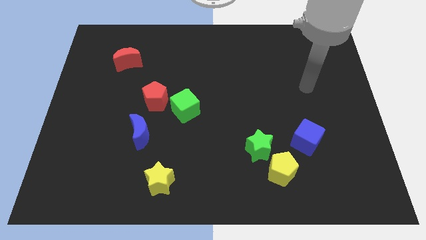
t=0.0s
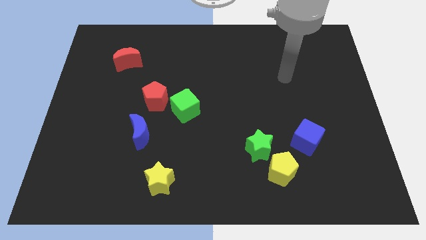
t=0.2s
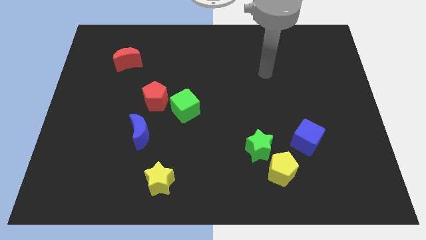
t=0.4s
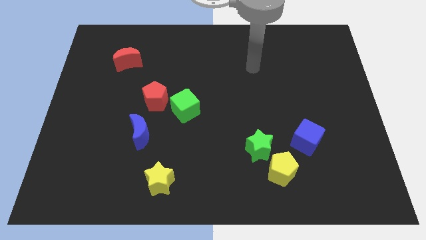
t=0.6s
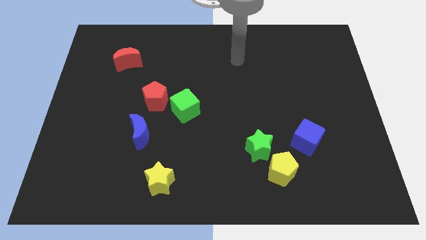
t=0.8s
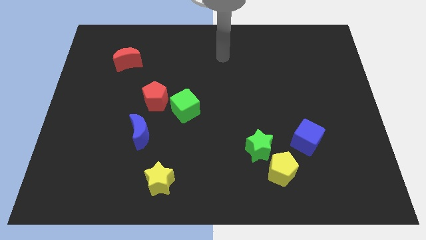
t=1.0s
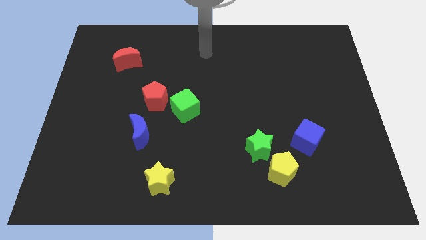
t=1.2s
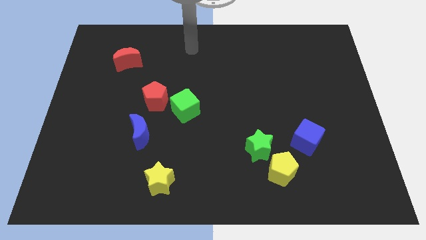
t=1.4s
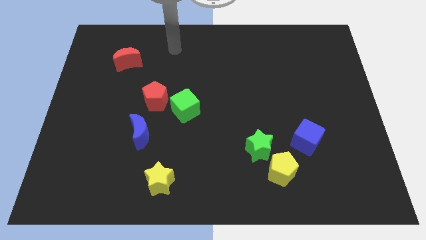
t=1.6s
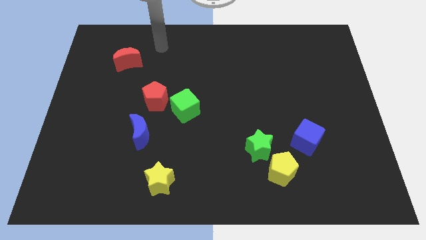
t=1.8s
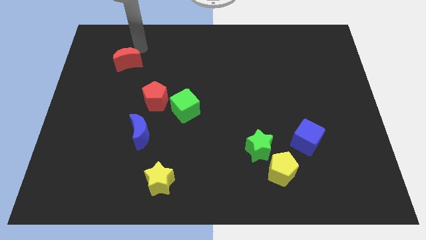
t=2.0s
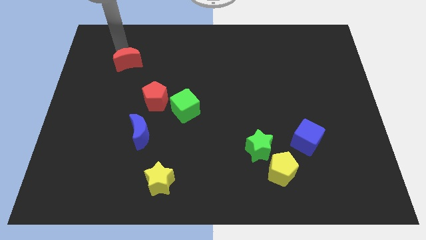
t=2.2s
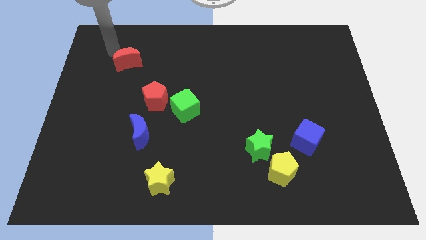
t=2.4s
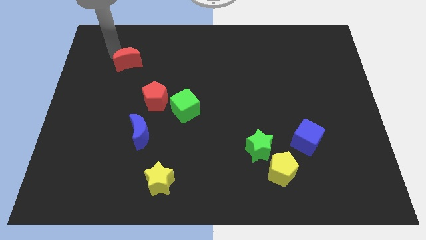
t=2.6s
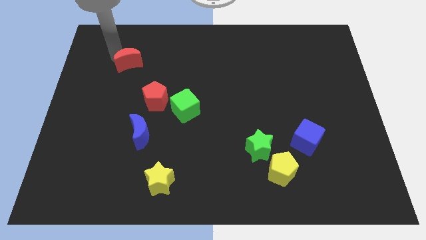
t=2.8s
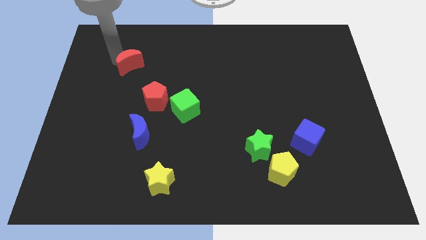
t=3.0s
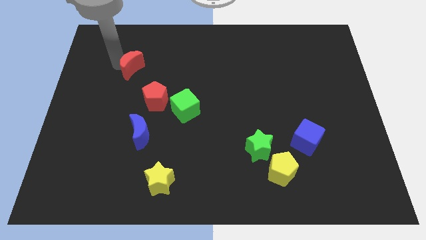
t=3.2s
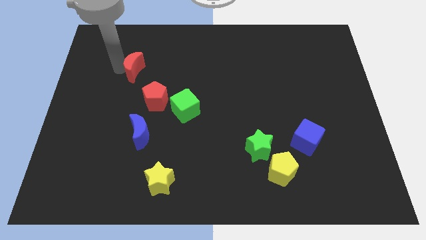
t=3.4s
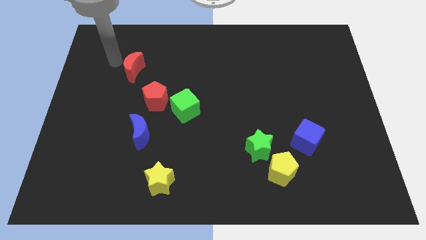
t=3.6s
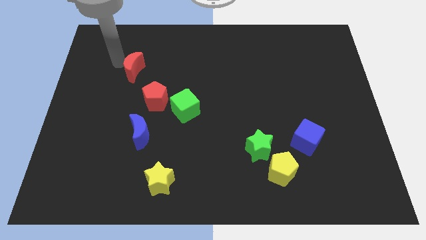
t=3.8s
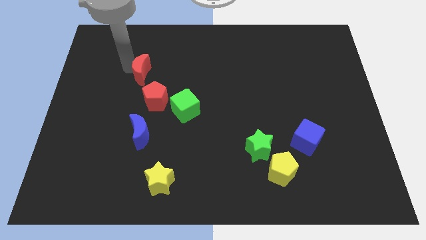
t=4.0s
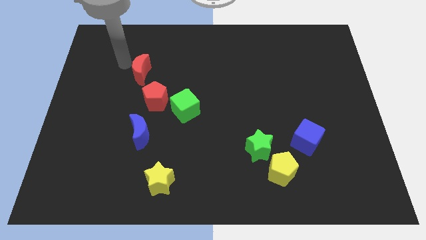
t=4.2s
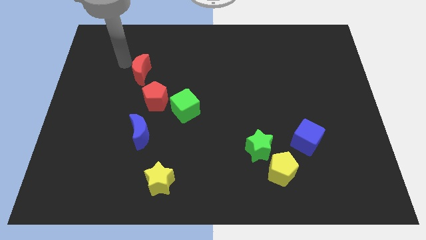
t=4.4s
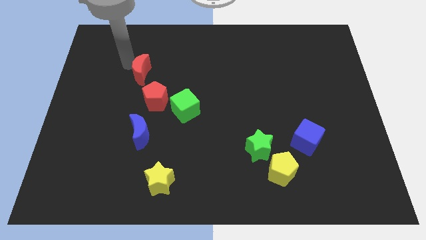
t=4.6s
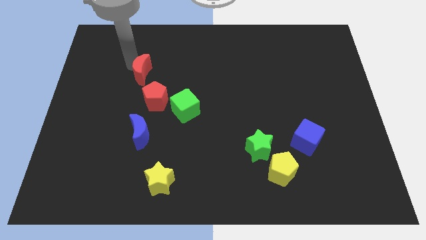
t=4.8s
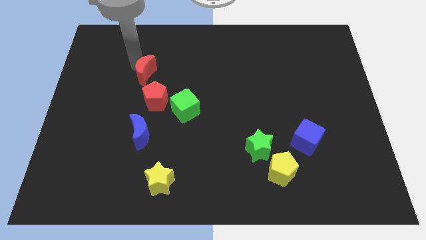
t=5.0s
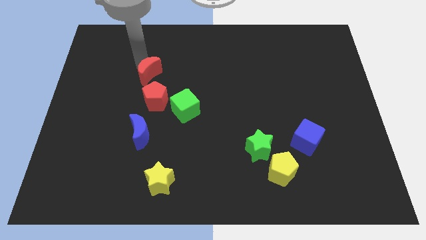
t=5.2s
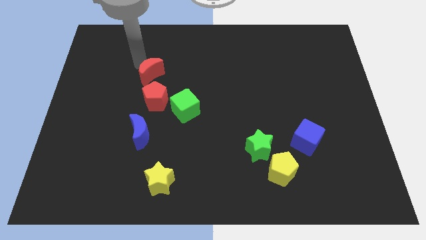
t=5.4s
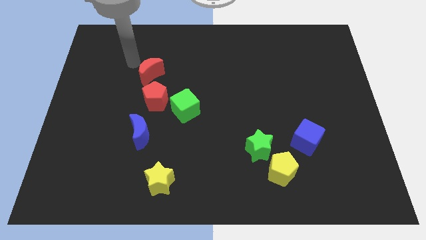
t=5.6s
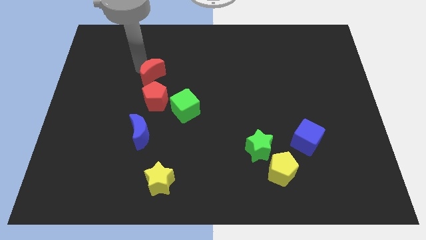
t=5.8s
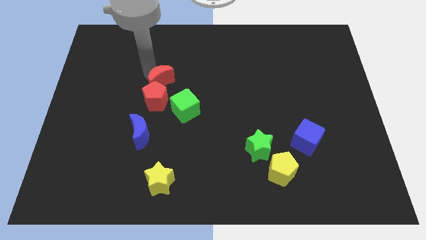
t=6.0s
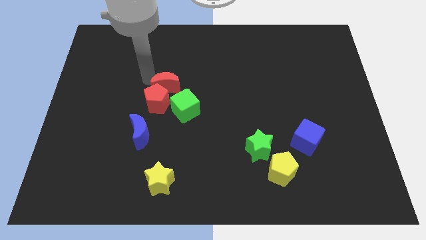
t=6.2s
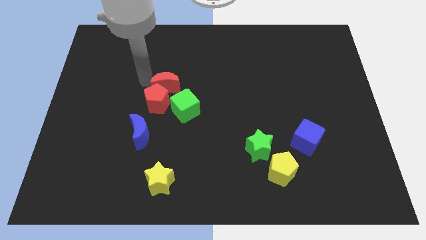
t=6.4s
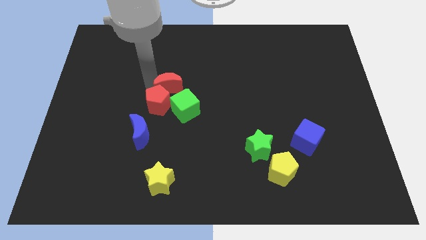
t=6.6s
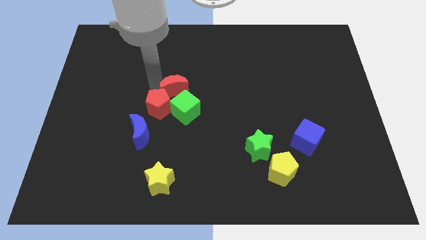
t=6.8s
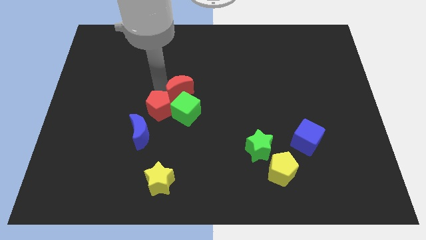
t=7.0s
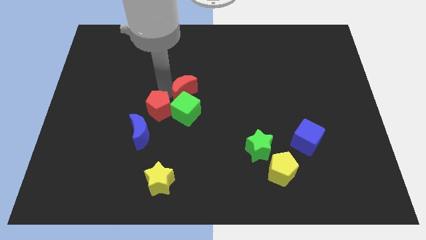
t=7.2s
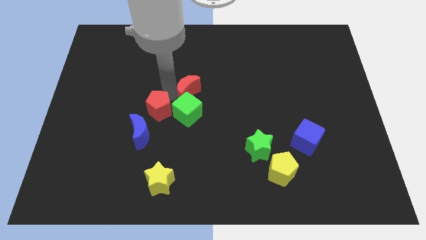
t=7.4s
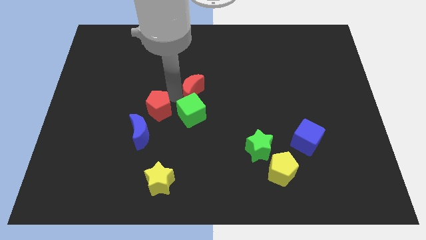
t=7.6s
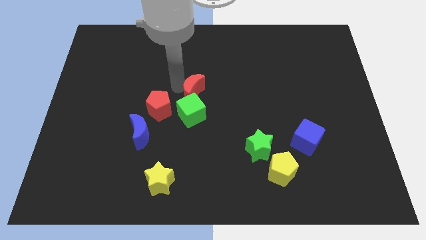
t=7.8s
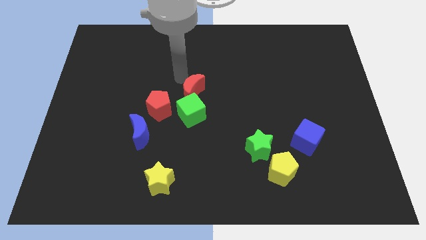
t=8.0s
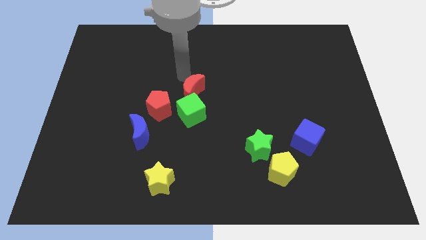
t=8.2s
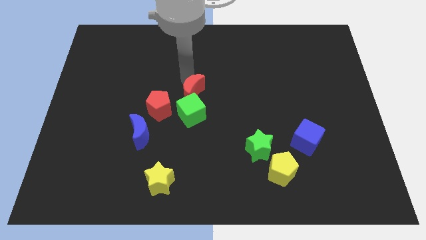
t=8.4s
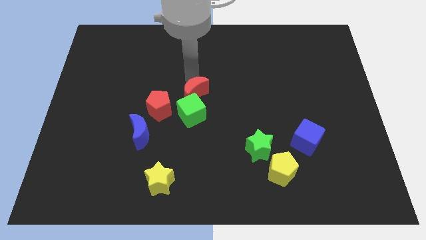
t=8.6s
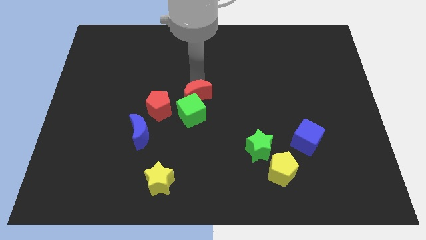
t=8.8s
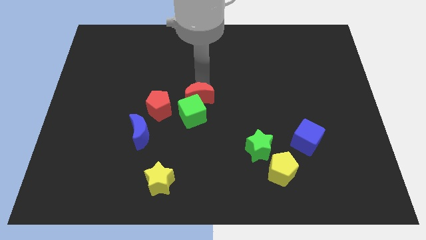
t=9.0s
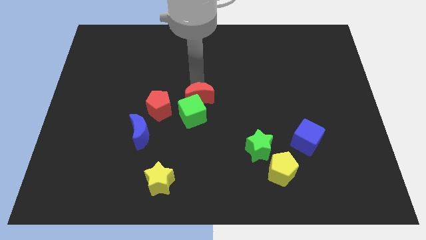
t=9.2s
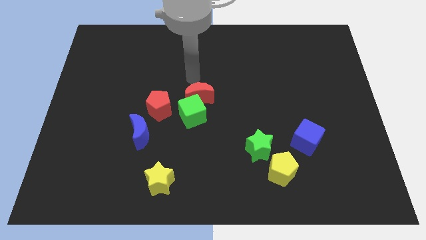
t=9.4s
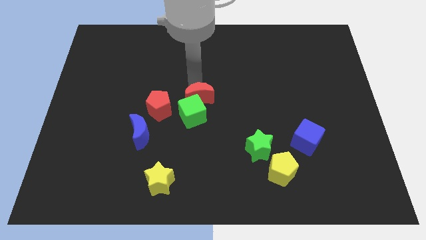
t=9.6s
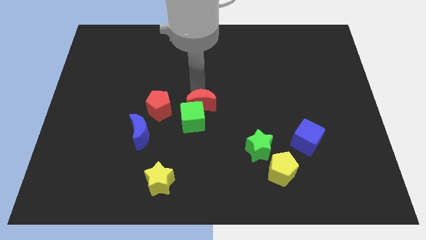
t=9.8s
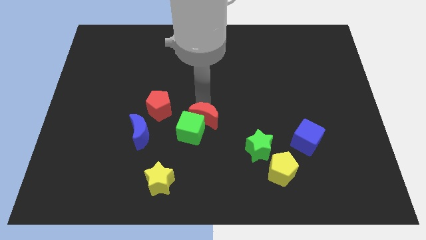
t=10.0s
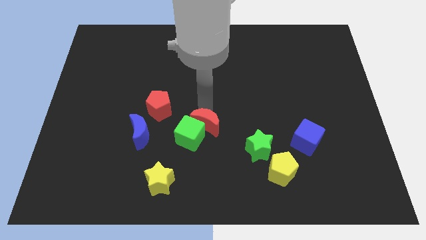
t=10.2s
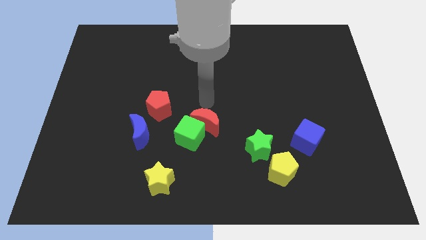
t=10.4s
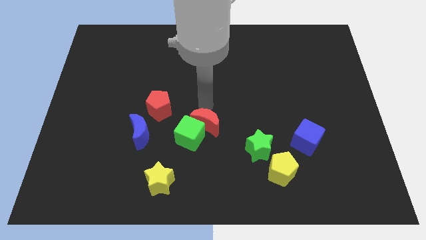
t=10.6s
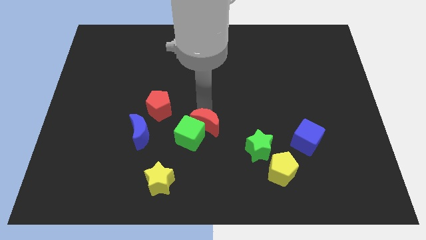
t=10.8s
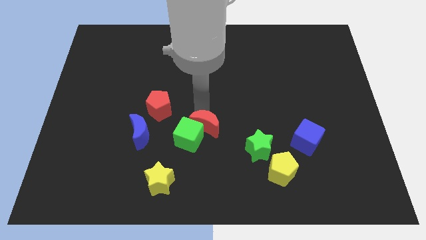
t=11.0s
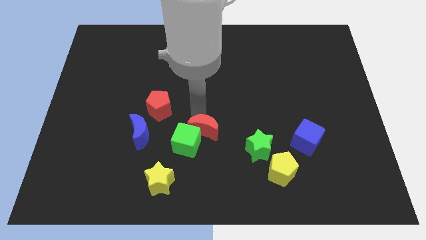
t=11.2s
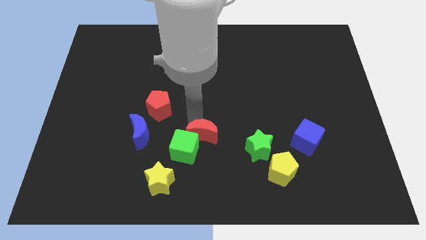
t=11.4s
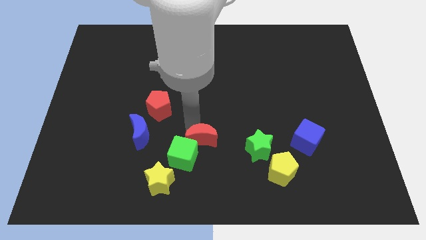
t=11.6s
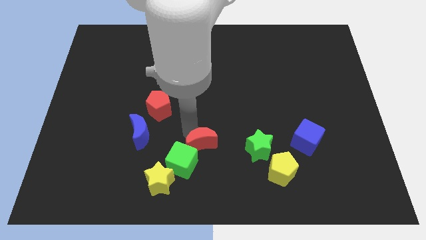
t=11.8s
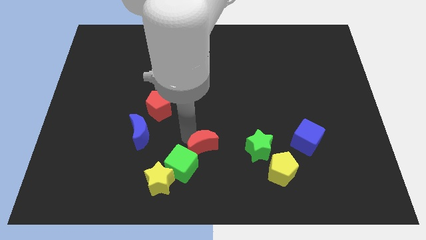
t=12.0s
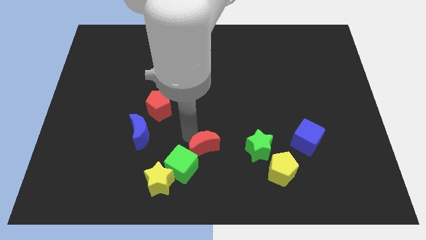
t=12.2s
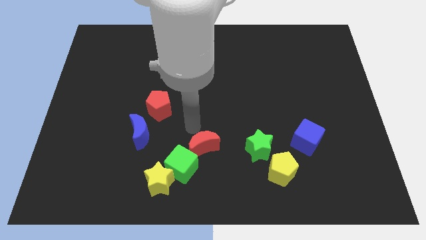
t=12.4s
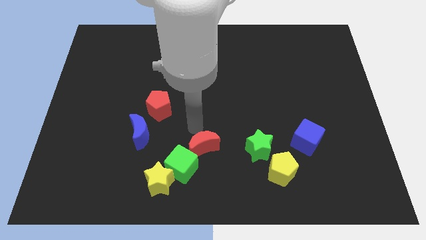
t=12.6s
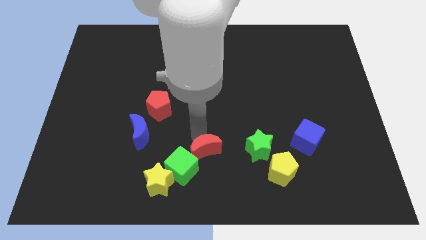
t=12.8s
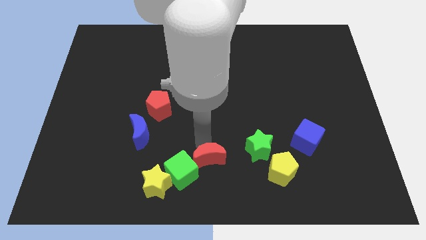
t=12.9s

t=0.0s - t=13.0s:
move the red moon to the bottom
